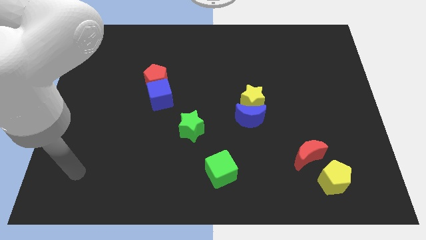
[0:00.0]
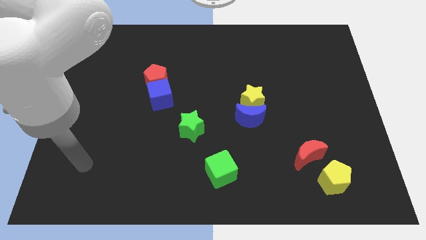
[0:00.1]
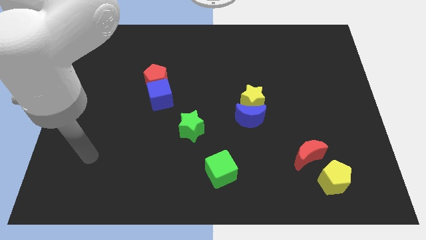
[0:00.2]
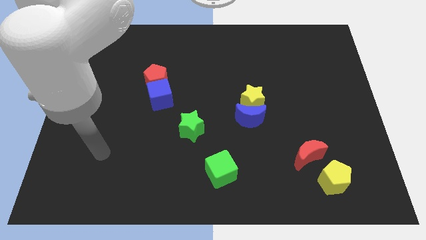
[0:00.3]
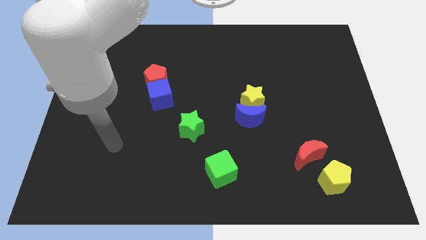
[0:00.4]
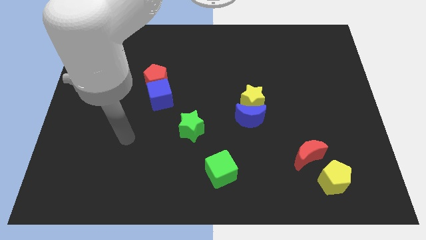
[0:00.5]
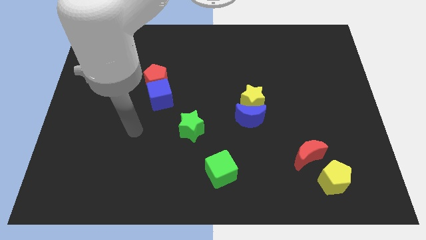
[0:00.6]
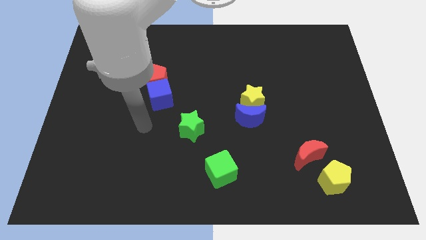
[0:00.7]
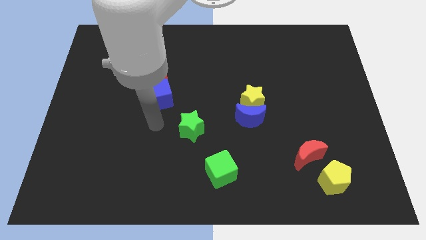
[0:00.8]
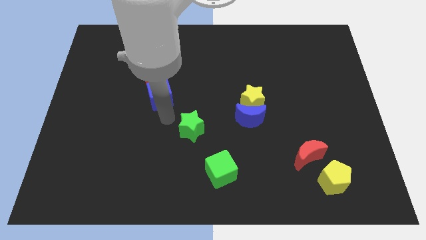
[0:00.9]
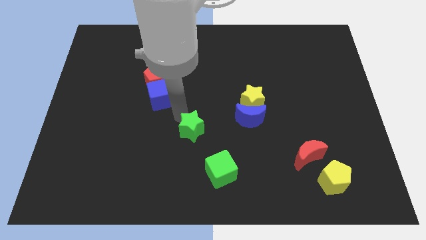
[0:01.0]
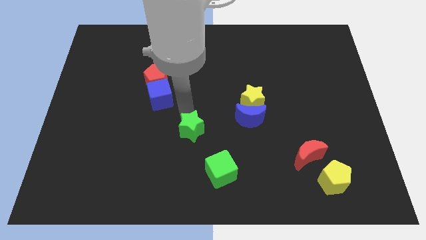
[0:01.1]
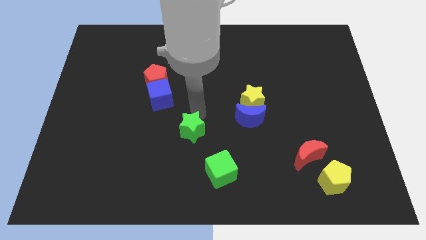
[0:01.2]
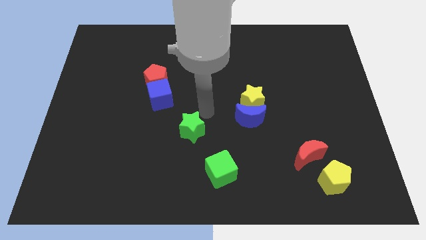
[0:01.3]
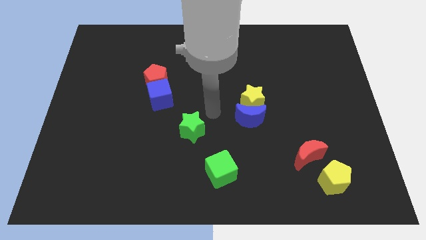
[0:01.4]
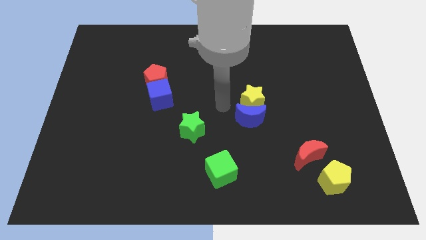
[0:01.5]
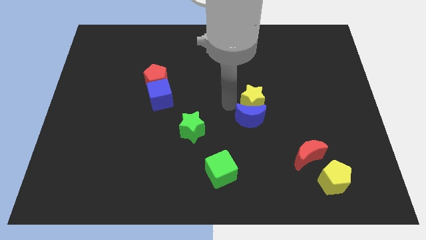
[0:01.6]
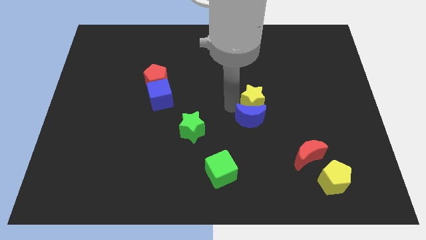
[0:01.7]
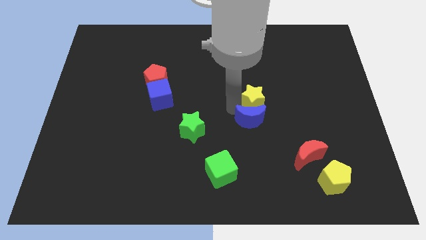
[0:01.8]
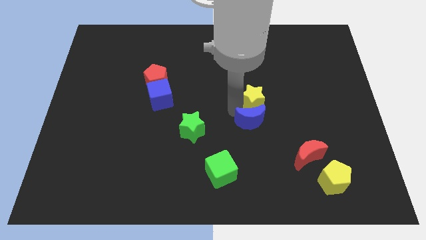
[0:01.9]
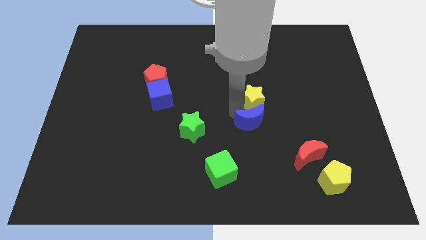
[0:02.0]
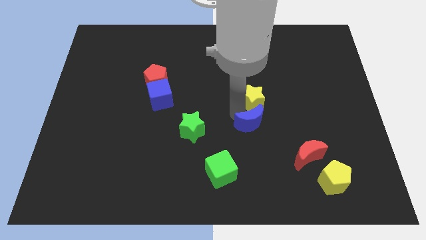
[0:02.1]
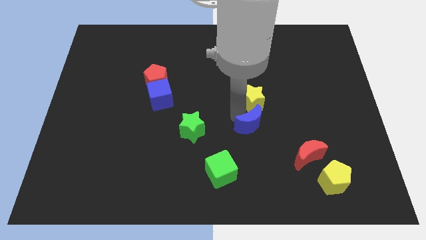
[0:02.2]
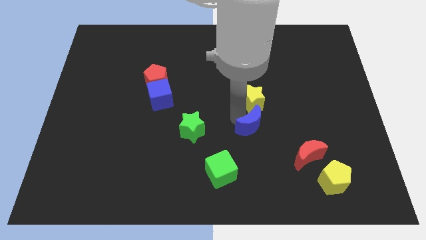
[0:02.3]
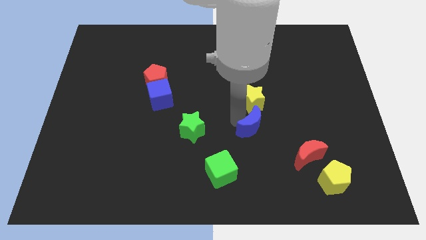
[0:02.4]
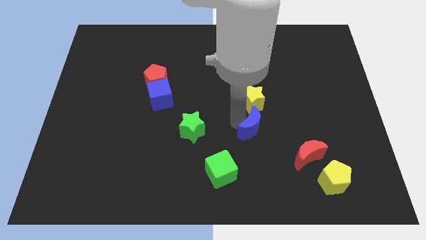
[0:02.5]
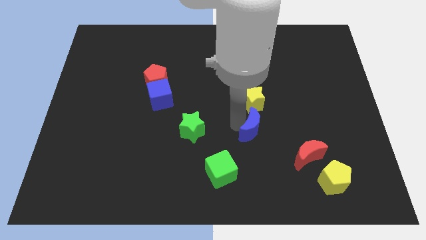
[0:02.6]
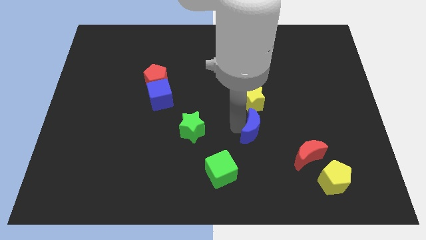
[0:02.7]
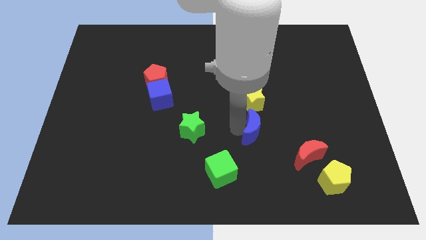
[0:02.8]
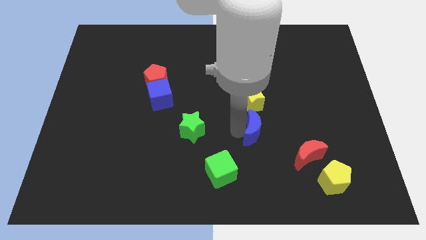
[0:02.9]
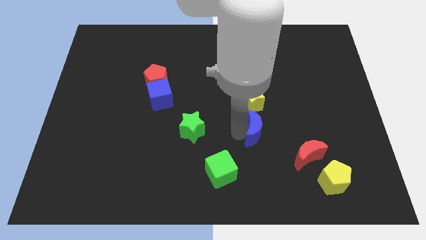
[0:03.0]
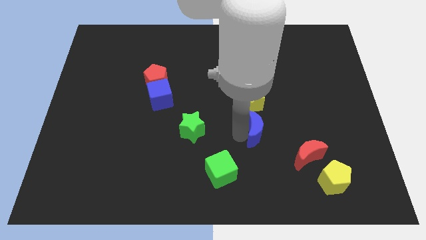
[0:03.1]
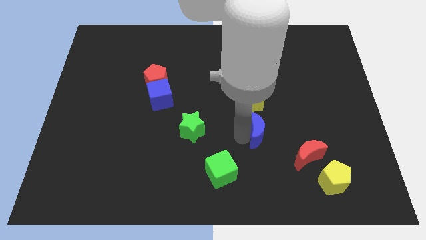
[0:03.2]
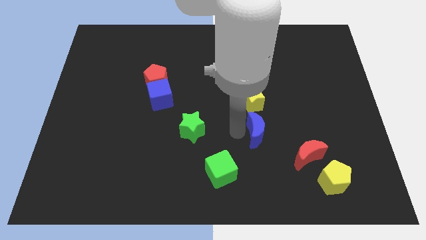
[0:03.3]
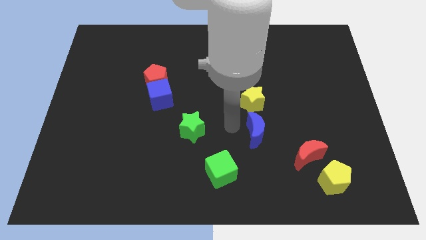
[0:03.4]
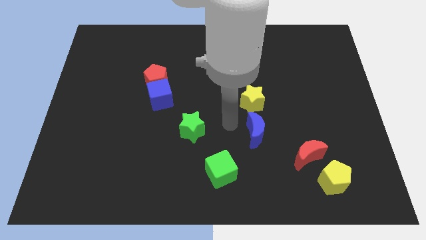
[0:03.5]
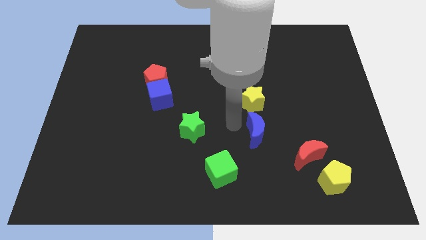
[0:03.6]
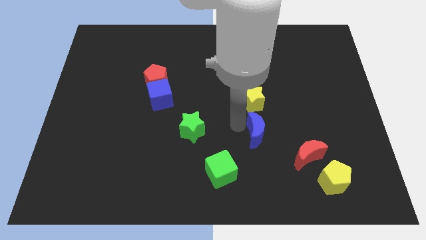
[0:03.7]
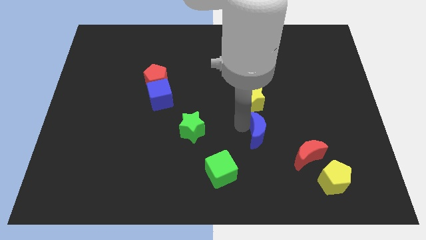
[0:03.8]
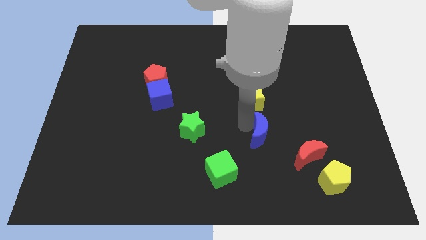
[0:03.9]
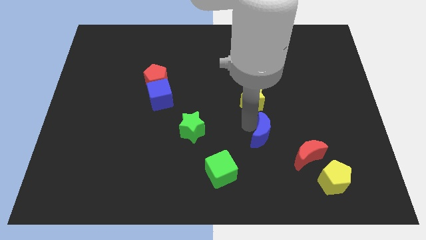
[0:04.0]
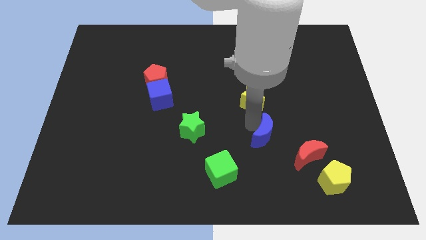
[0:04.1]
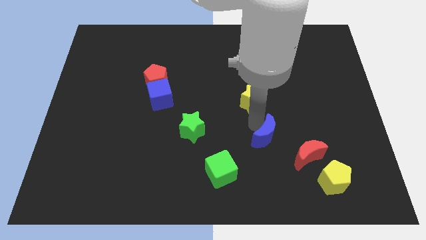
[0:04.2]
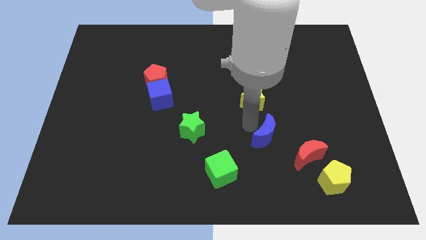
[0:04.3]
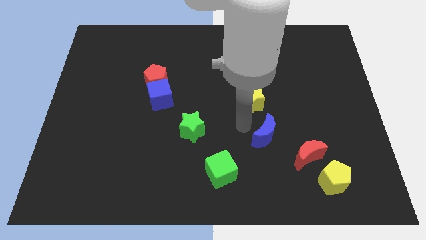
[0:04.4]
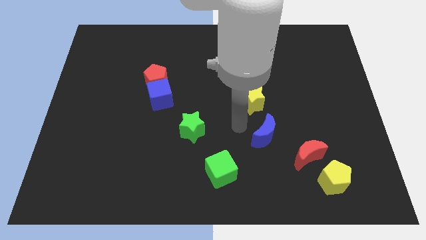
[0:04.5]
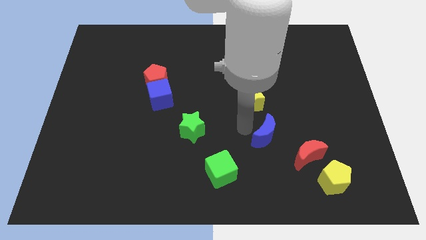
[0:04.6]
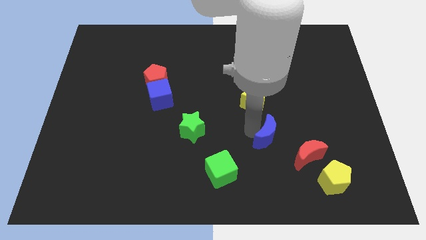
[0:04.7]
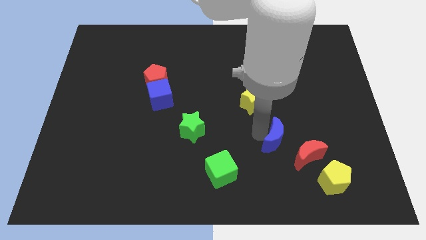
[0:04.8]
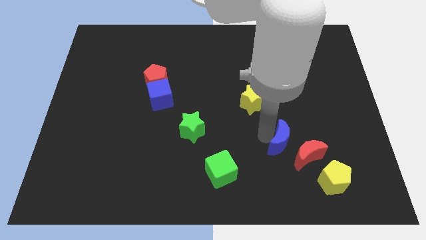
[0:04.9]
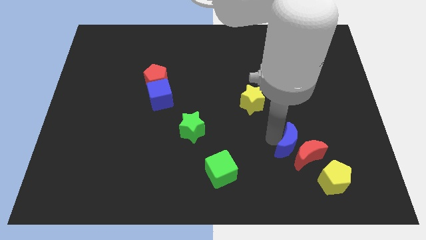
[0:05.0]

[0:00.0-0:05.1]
put the blue moon towards the red moon

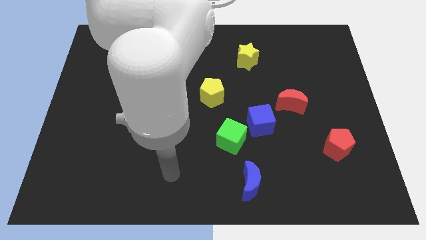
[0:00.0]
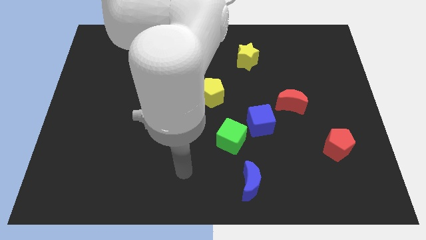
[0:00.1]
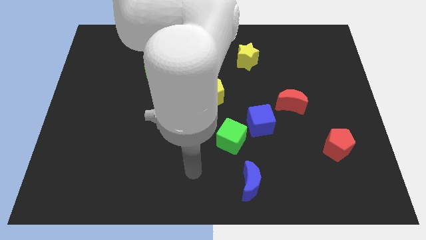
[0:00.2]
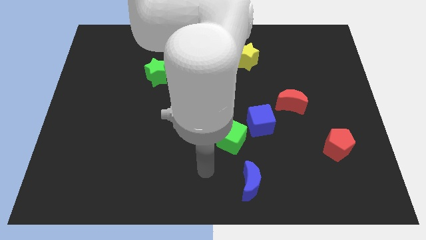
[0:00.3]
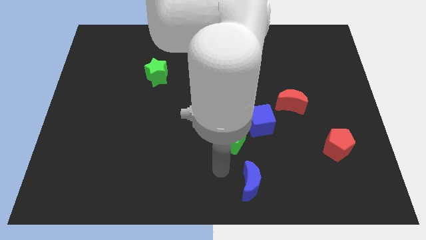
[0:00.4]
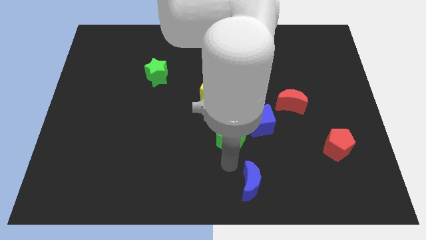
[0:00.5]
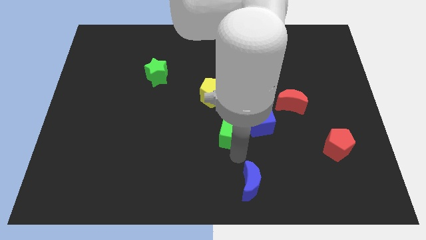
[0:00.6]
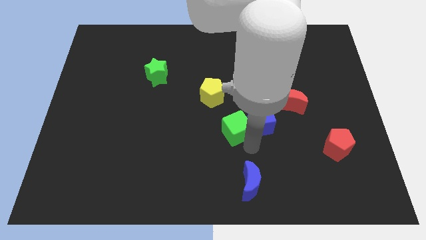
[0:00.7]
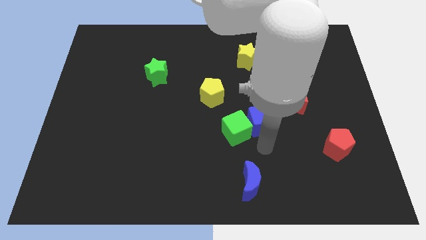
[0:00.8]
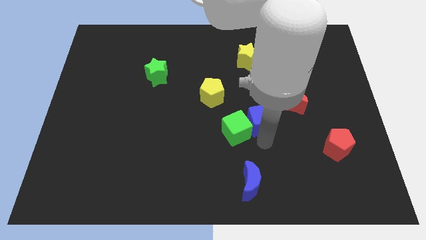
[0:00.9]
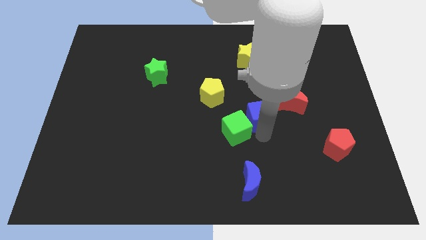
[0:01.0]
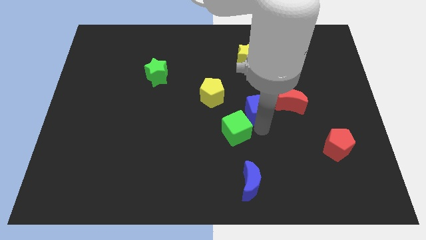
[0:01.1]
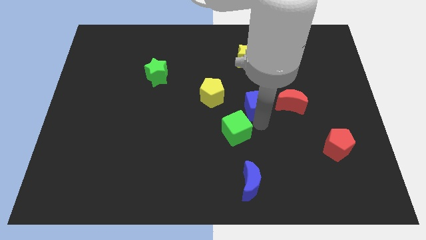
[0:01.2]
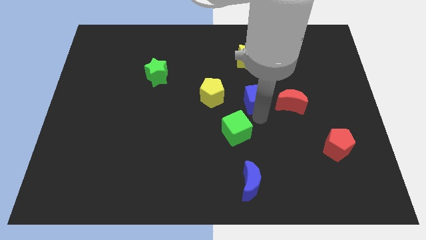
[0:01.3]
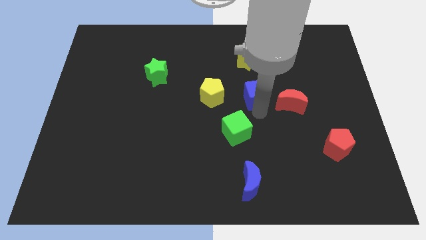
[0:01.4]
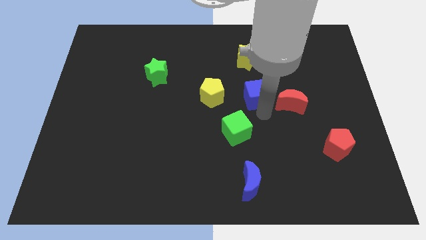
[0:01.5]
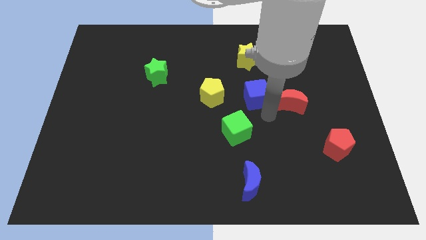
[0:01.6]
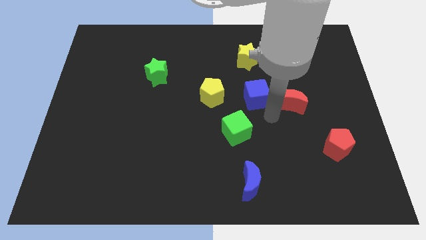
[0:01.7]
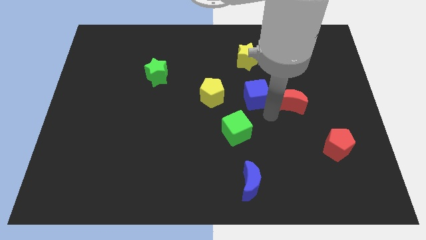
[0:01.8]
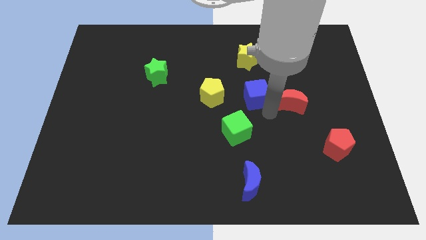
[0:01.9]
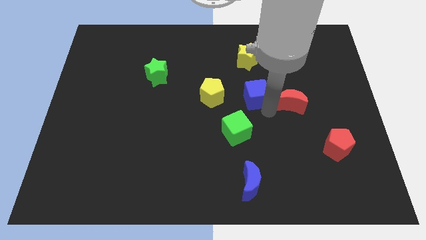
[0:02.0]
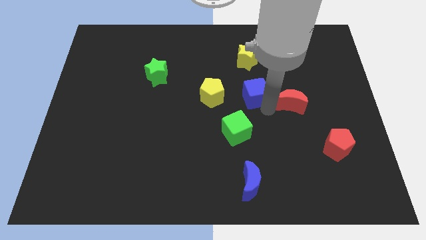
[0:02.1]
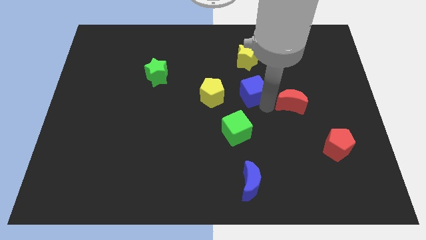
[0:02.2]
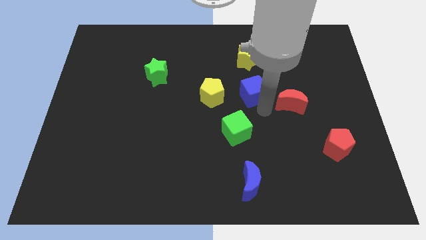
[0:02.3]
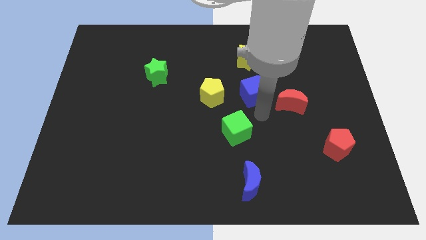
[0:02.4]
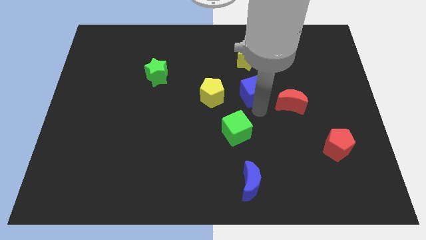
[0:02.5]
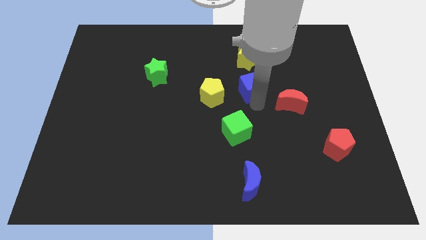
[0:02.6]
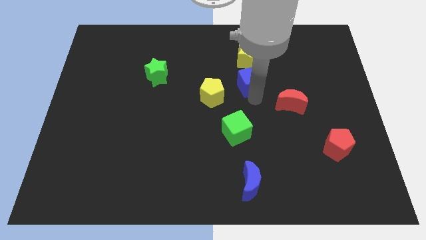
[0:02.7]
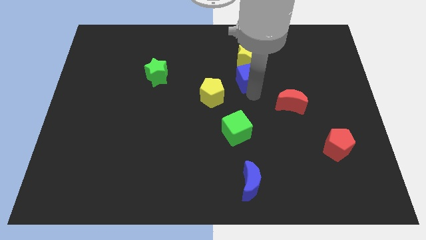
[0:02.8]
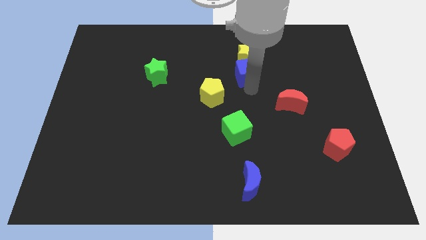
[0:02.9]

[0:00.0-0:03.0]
slide the blue cube towards the yellow star
